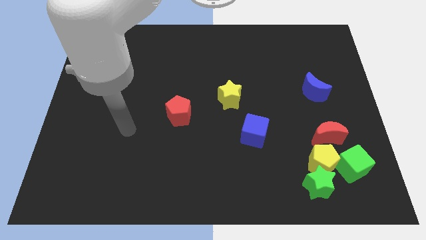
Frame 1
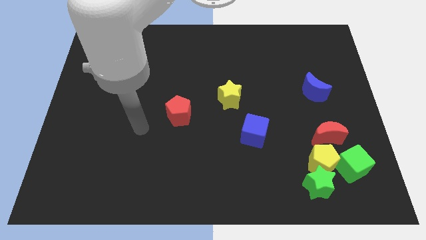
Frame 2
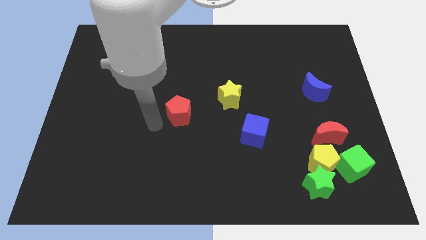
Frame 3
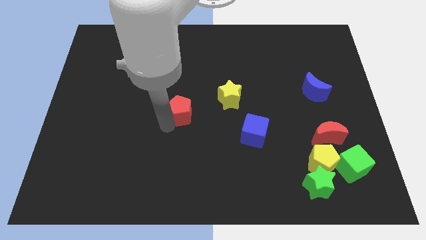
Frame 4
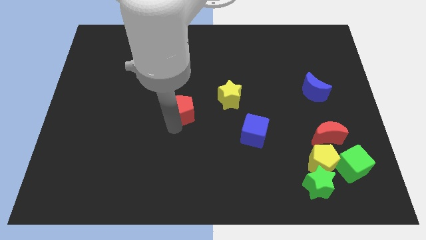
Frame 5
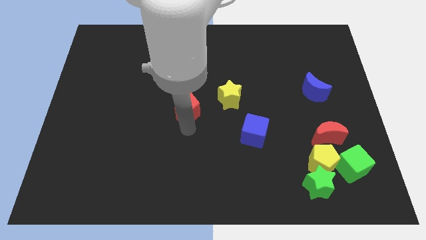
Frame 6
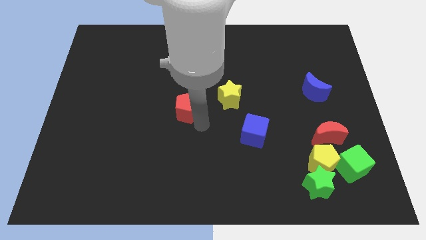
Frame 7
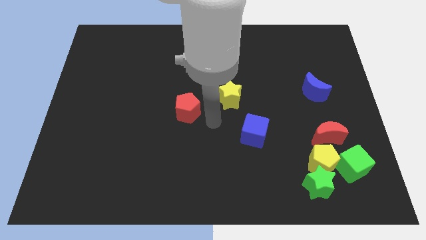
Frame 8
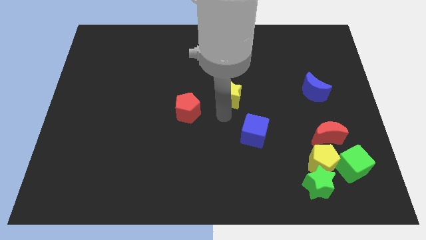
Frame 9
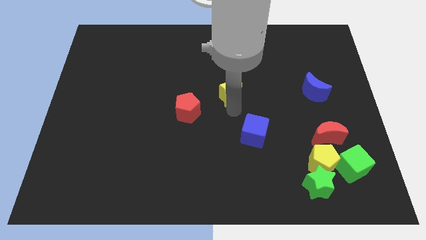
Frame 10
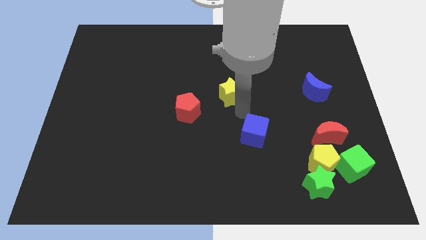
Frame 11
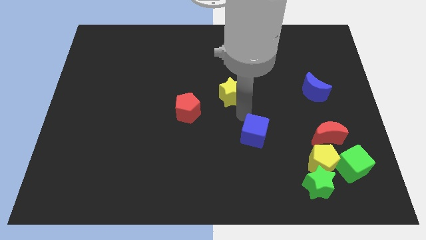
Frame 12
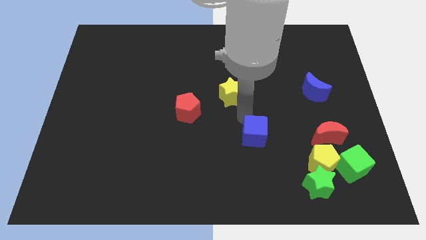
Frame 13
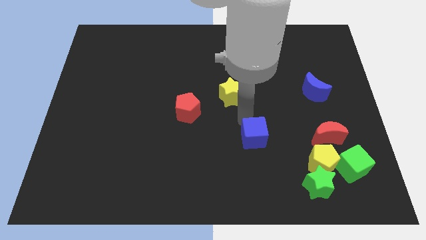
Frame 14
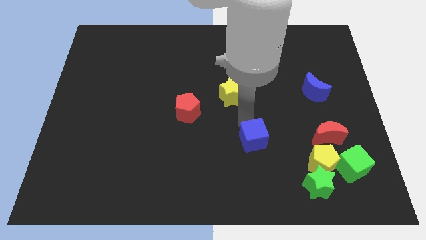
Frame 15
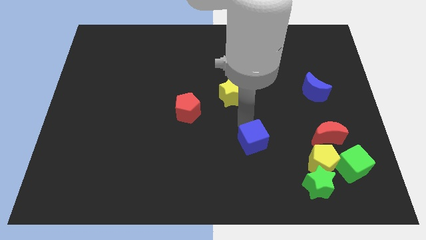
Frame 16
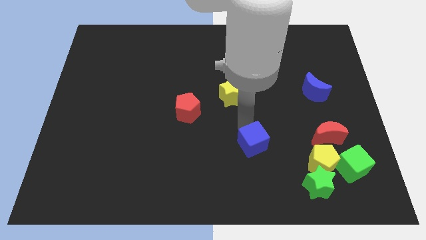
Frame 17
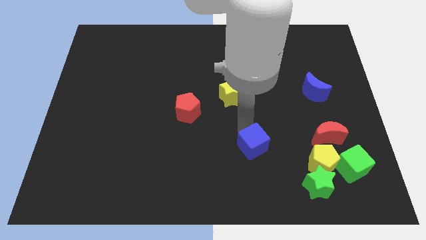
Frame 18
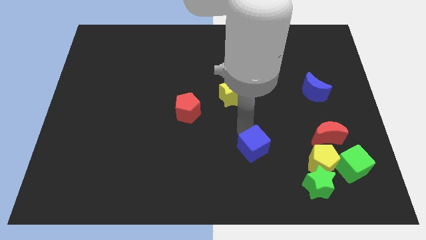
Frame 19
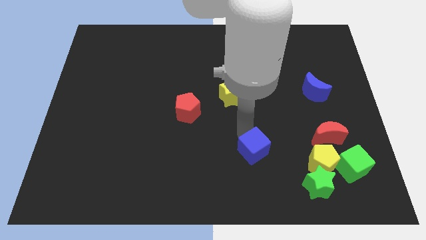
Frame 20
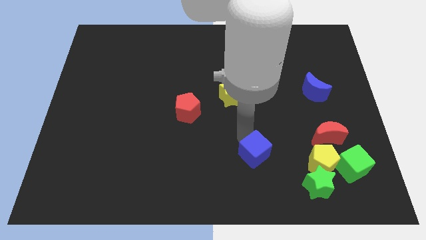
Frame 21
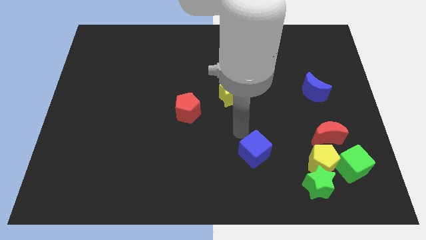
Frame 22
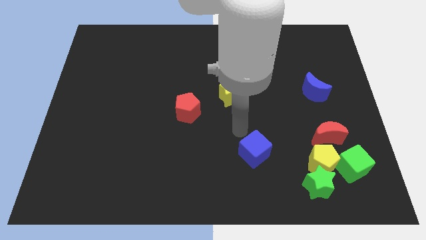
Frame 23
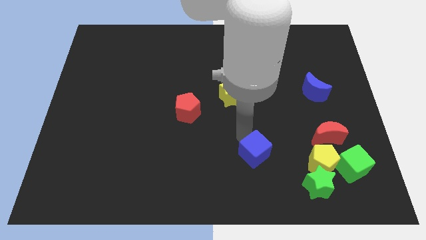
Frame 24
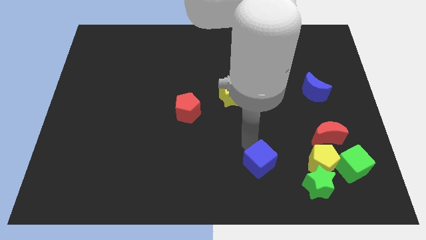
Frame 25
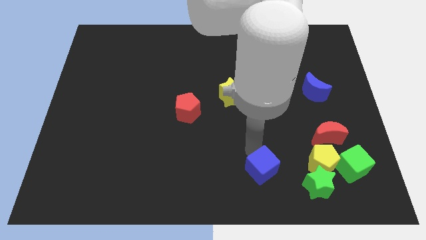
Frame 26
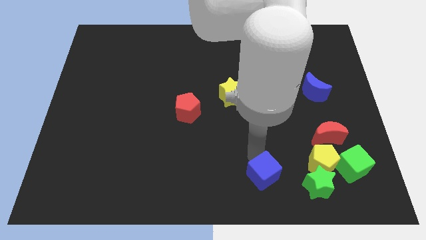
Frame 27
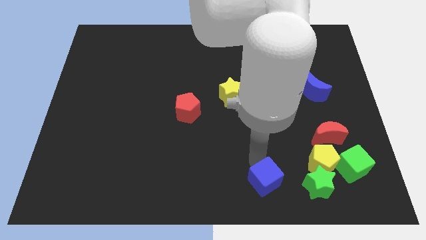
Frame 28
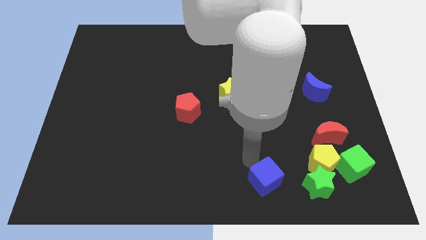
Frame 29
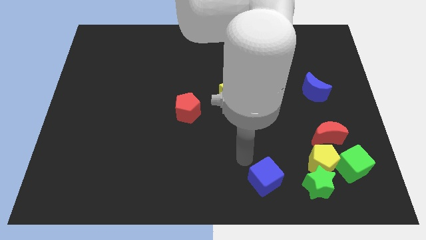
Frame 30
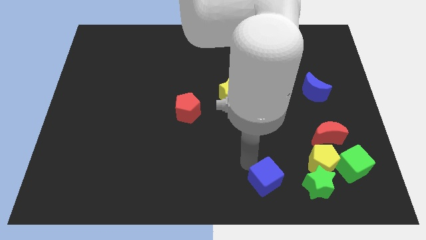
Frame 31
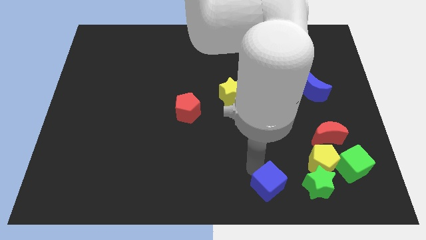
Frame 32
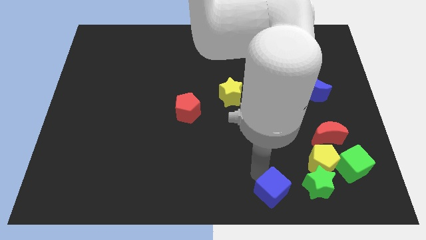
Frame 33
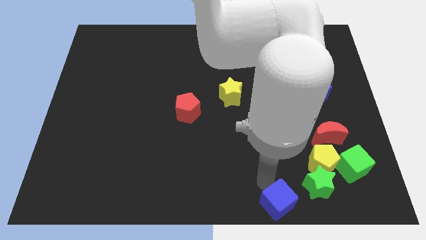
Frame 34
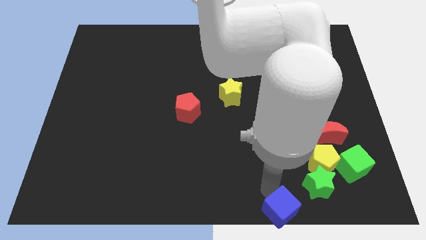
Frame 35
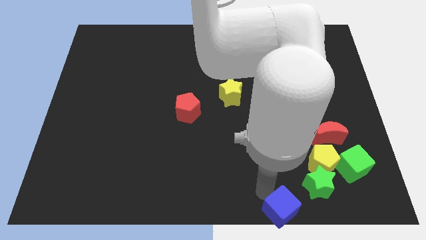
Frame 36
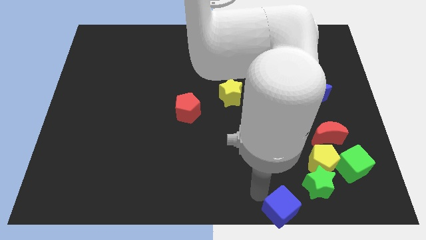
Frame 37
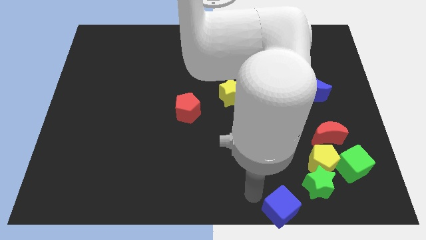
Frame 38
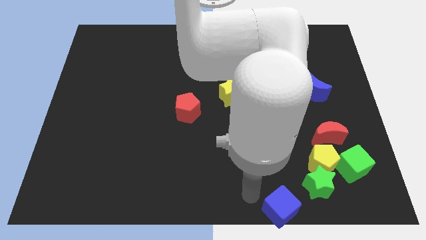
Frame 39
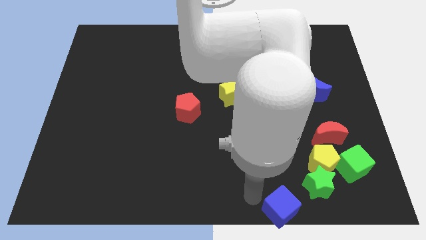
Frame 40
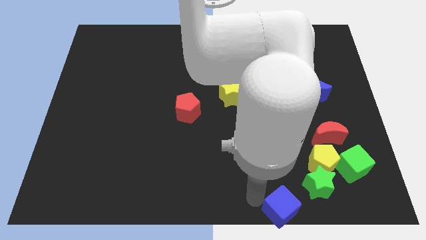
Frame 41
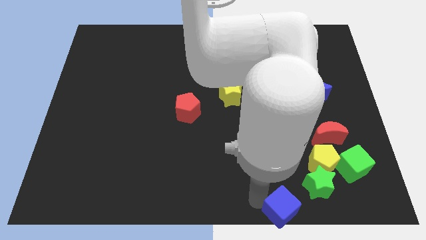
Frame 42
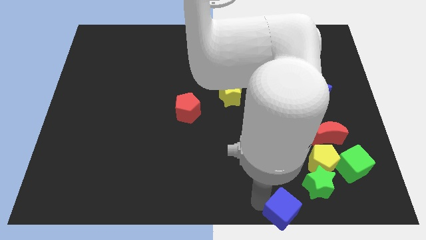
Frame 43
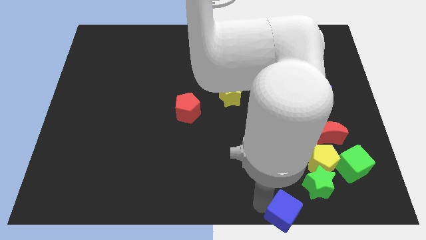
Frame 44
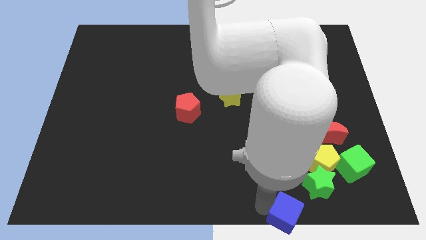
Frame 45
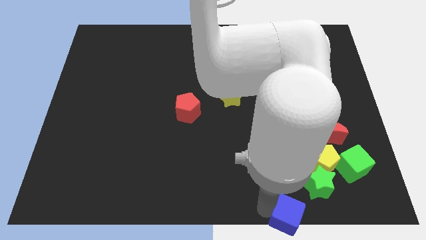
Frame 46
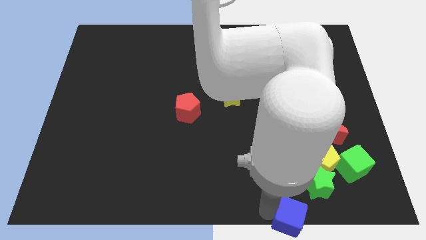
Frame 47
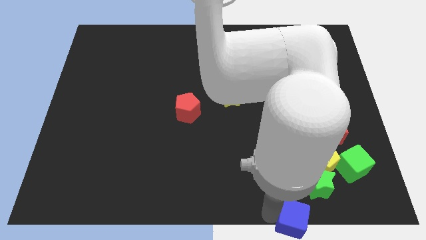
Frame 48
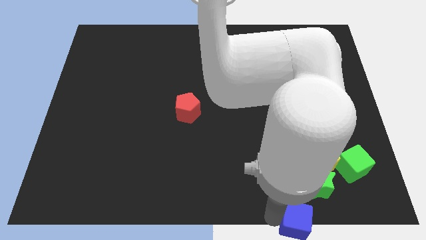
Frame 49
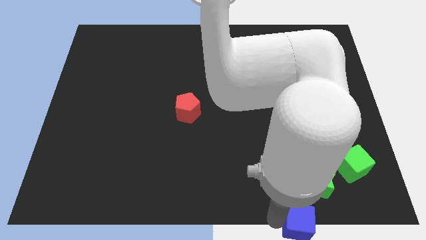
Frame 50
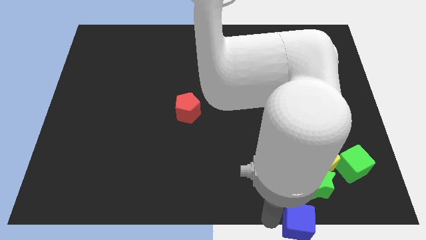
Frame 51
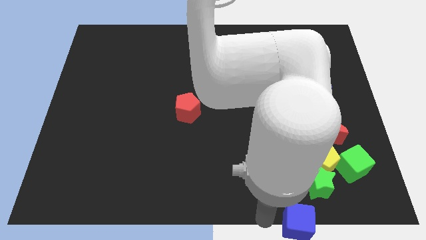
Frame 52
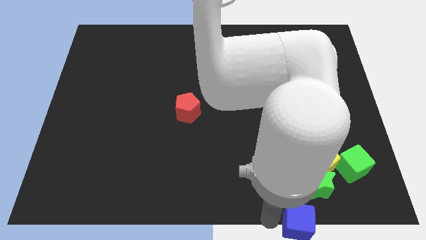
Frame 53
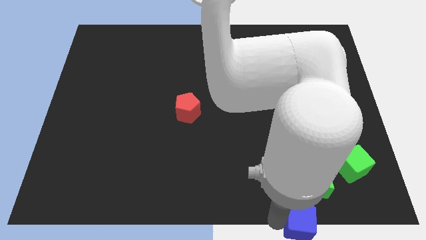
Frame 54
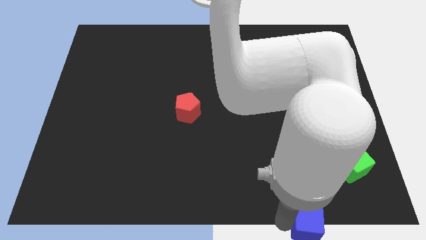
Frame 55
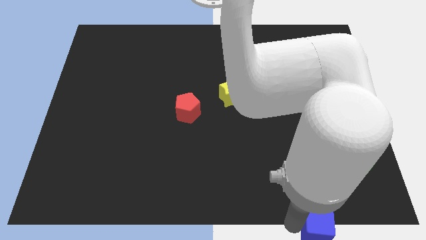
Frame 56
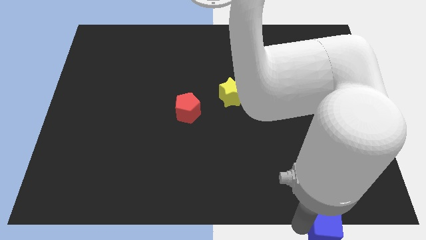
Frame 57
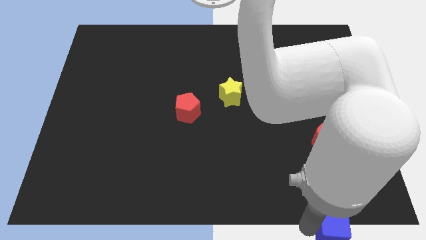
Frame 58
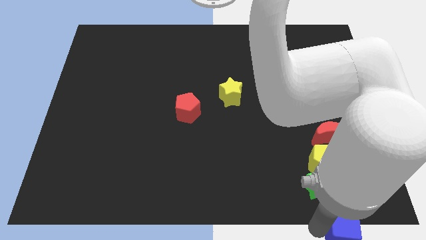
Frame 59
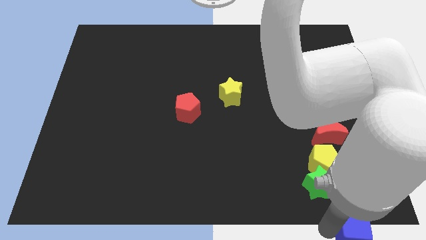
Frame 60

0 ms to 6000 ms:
push the blue cube to the bottom right

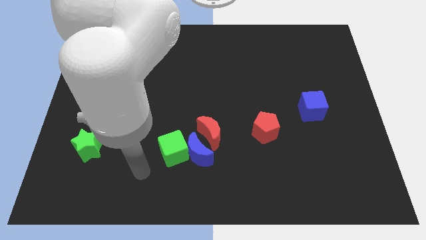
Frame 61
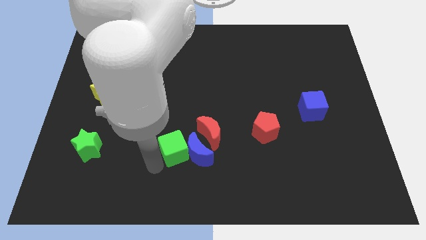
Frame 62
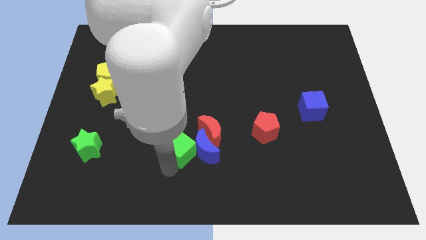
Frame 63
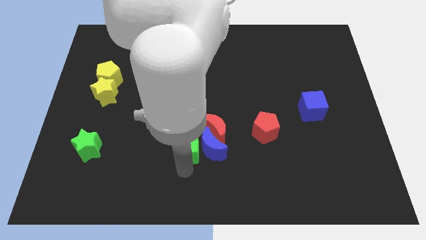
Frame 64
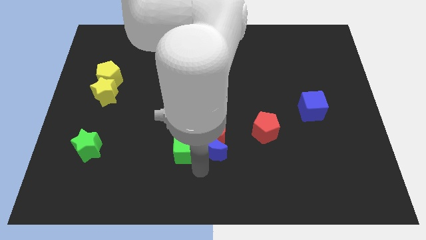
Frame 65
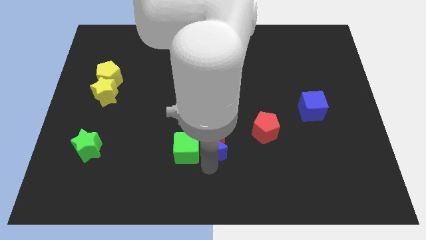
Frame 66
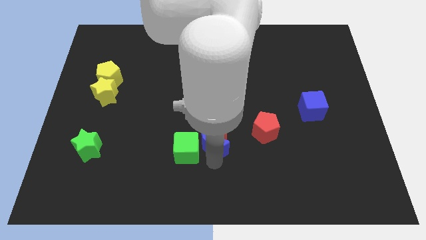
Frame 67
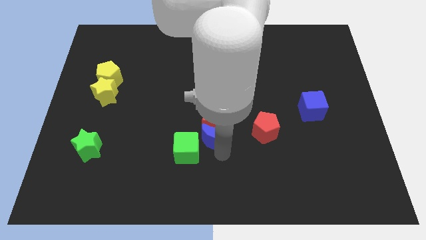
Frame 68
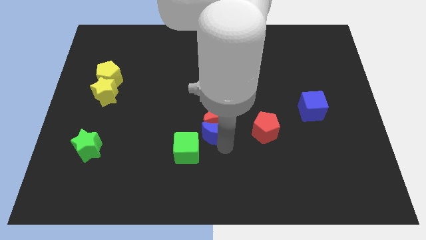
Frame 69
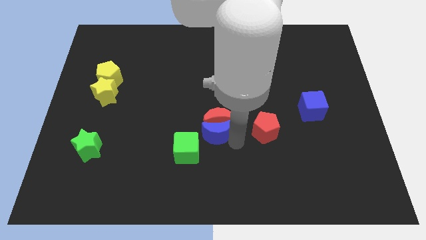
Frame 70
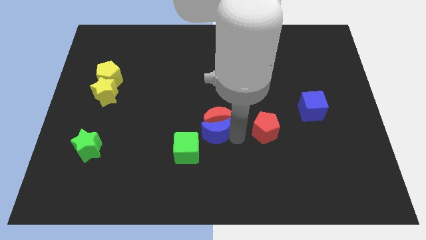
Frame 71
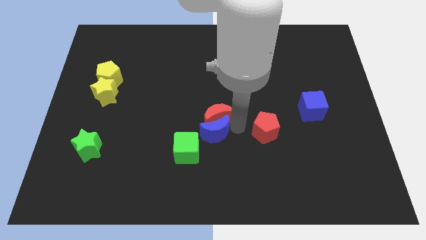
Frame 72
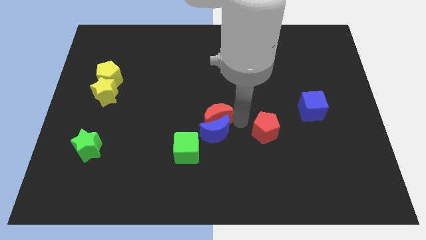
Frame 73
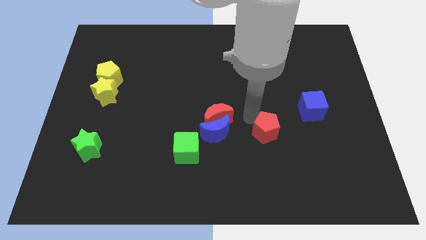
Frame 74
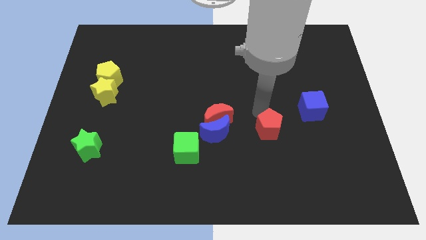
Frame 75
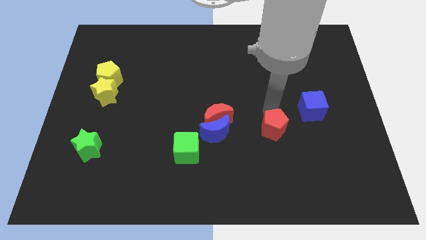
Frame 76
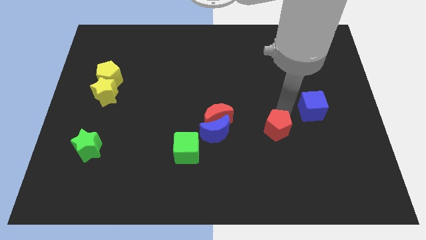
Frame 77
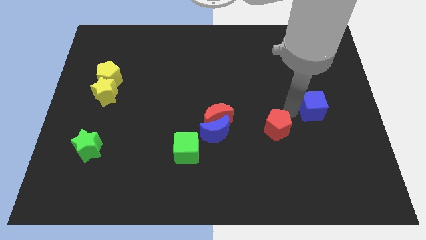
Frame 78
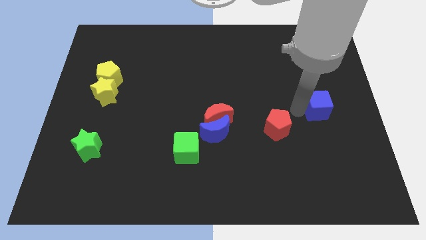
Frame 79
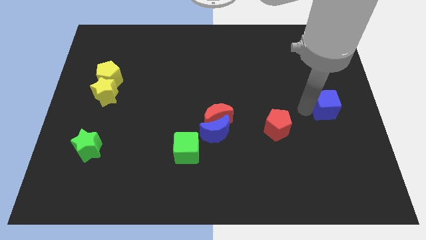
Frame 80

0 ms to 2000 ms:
push the blue cube to the right side
